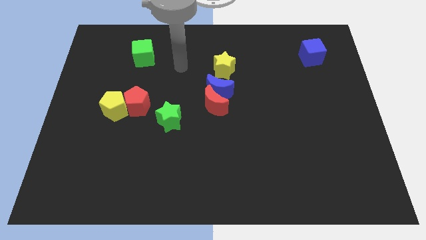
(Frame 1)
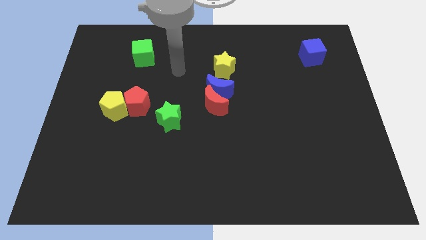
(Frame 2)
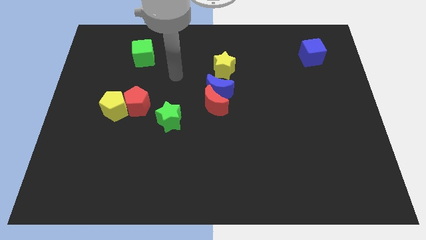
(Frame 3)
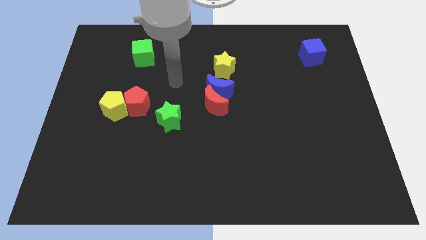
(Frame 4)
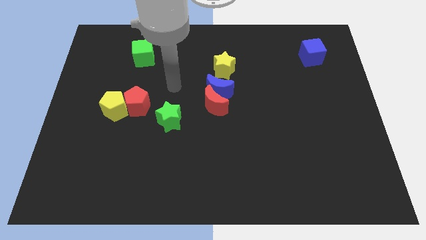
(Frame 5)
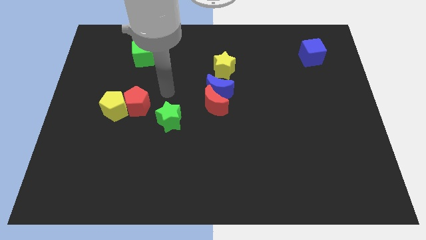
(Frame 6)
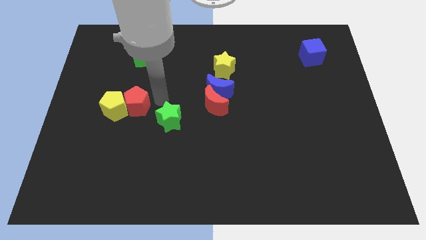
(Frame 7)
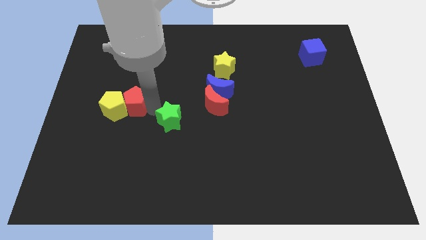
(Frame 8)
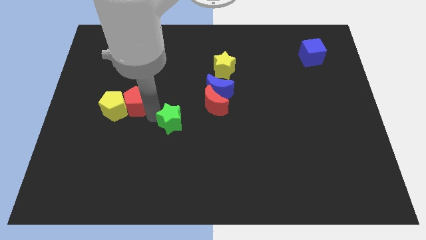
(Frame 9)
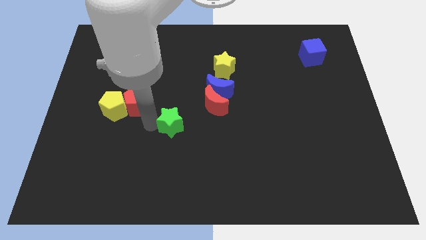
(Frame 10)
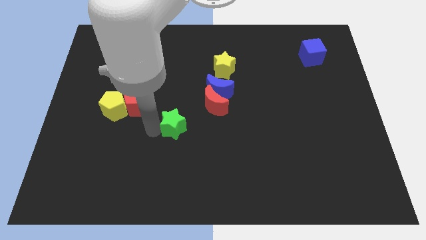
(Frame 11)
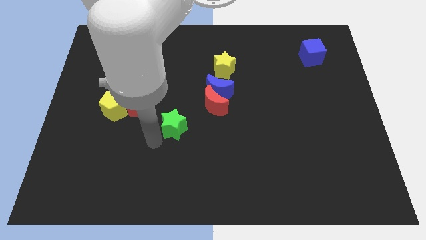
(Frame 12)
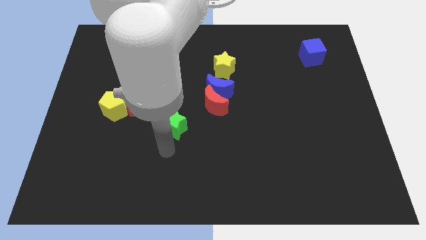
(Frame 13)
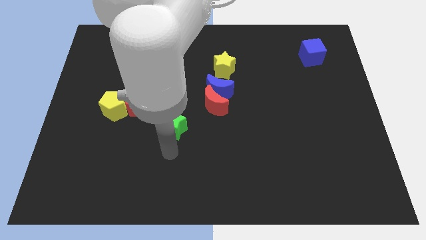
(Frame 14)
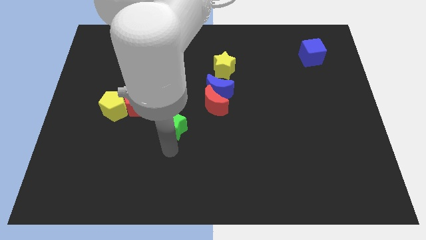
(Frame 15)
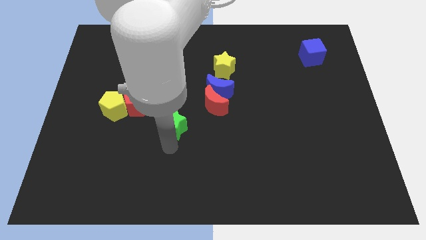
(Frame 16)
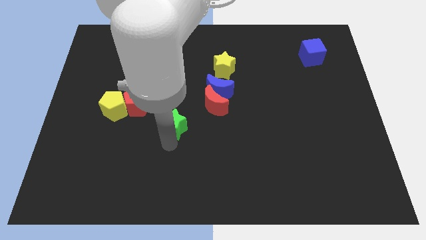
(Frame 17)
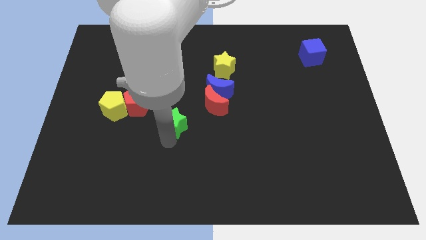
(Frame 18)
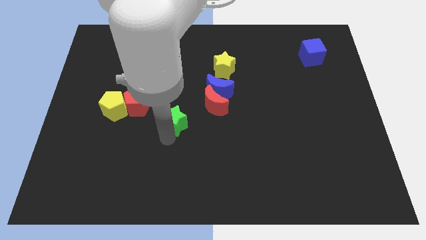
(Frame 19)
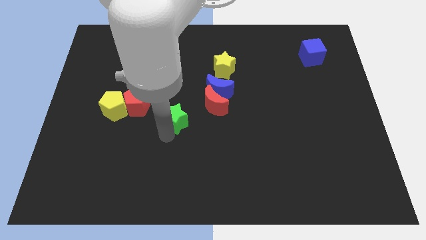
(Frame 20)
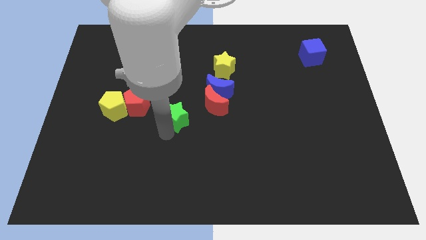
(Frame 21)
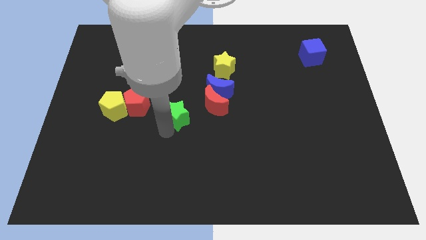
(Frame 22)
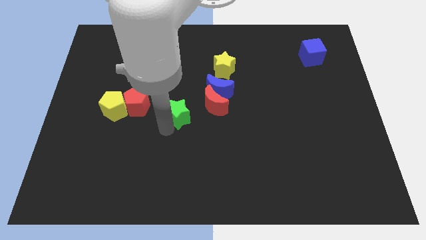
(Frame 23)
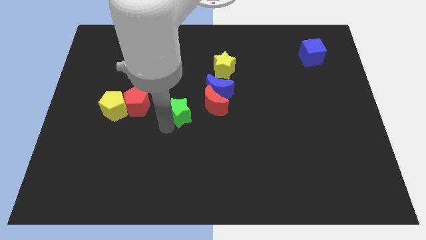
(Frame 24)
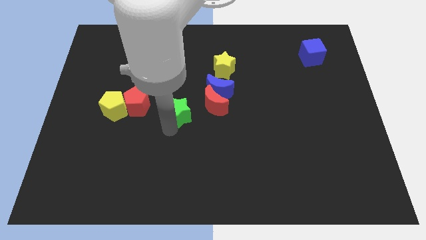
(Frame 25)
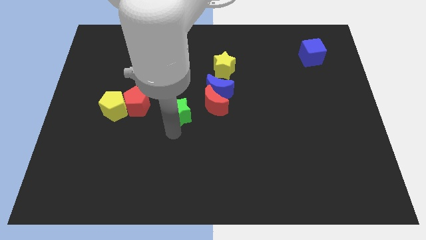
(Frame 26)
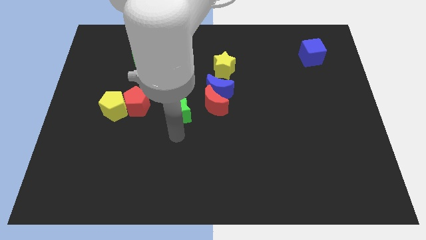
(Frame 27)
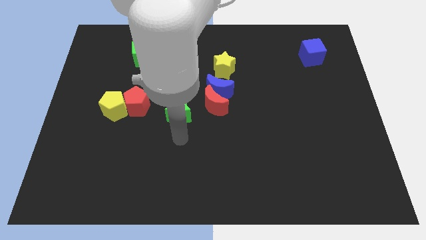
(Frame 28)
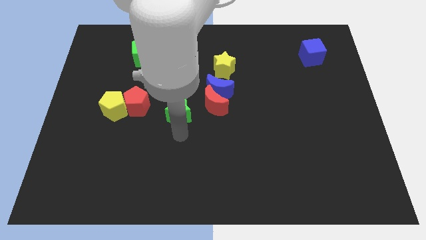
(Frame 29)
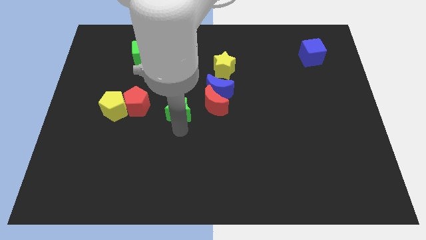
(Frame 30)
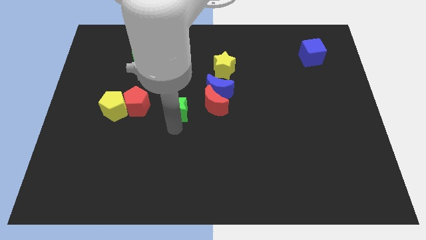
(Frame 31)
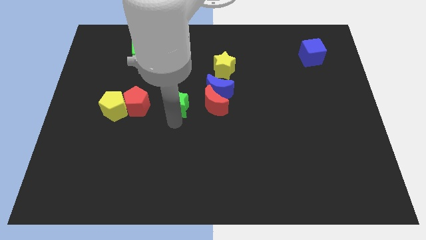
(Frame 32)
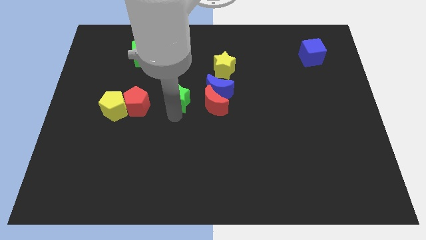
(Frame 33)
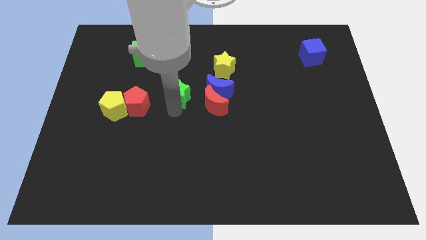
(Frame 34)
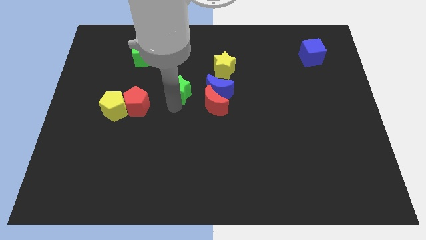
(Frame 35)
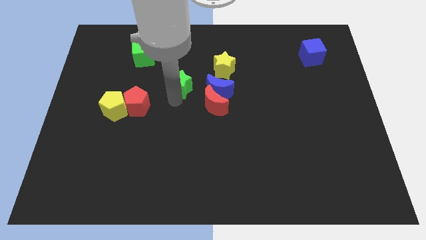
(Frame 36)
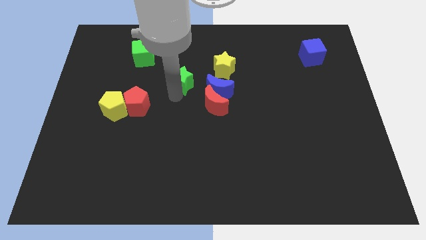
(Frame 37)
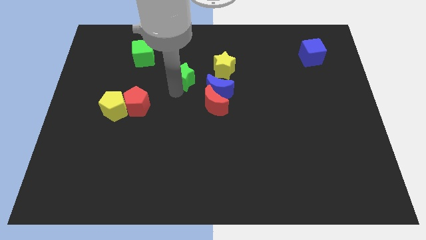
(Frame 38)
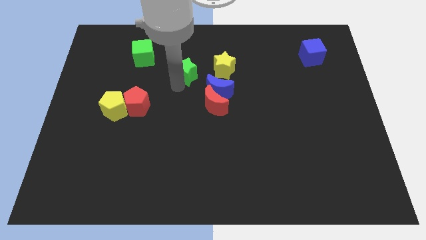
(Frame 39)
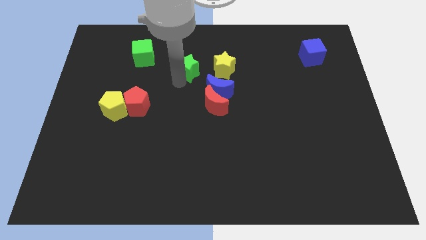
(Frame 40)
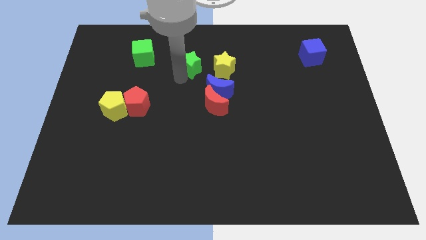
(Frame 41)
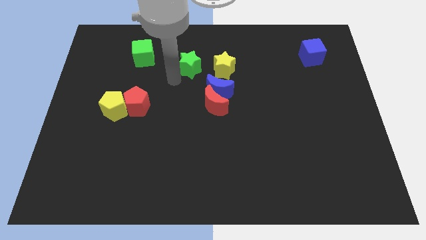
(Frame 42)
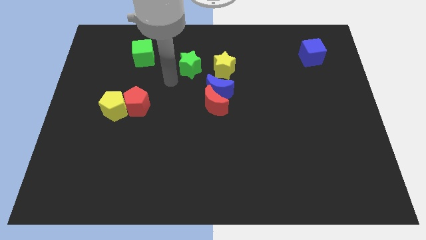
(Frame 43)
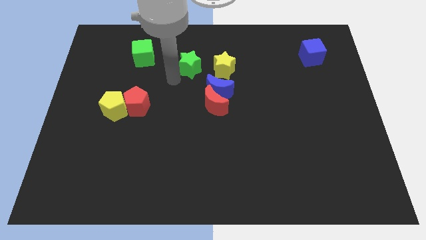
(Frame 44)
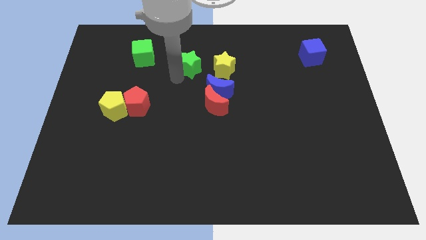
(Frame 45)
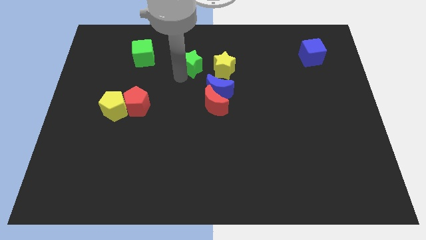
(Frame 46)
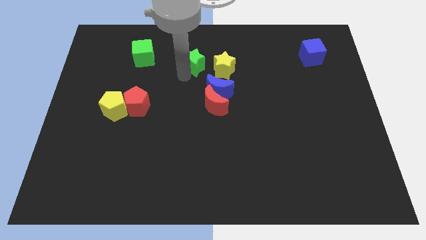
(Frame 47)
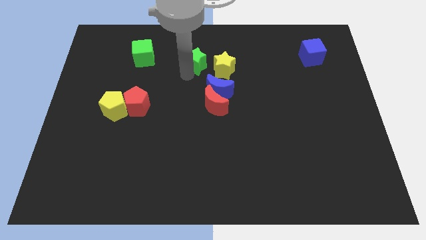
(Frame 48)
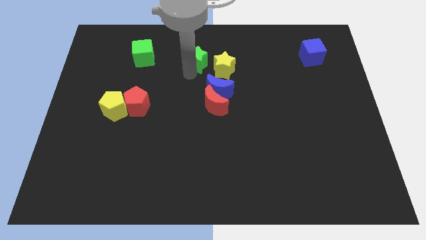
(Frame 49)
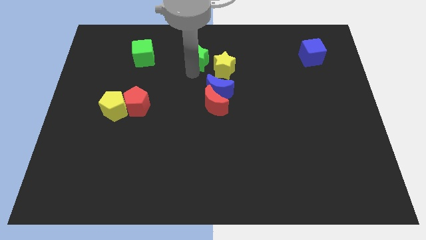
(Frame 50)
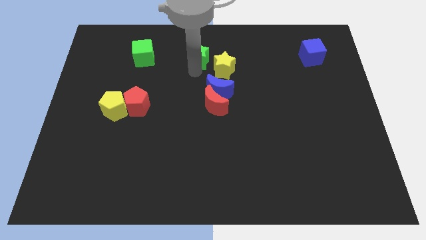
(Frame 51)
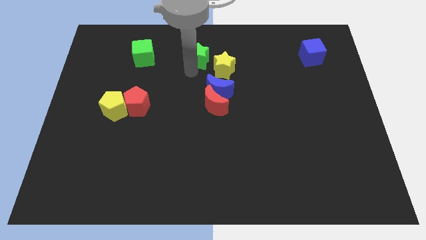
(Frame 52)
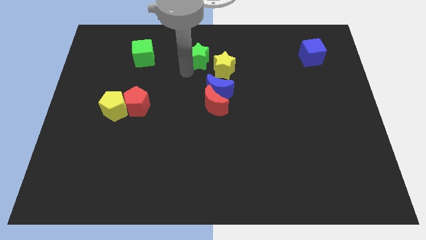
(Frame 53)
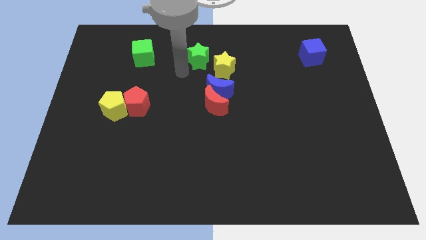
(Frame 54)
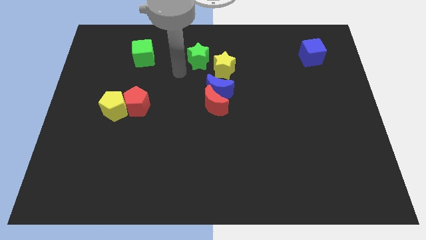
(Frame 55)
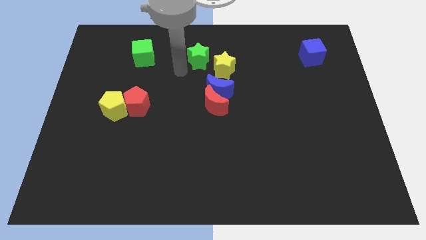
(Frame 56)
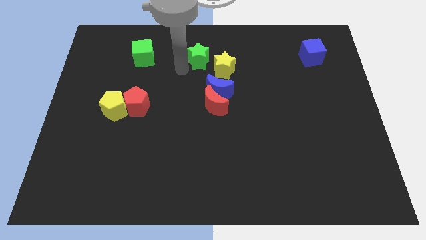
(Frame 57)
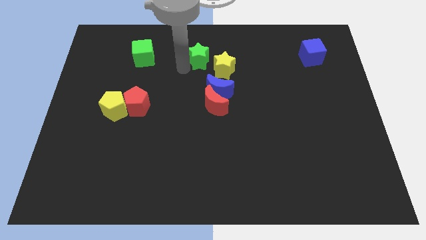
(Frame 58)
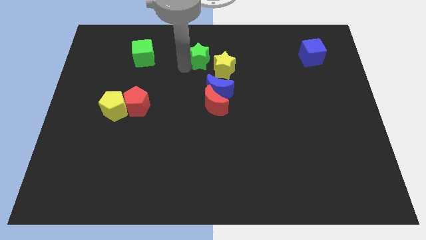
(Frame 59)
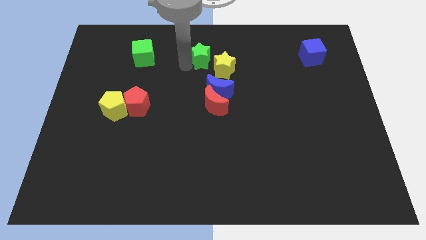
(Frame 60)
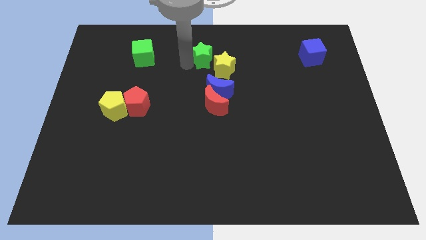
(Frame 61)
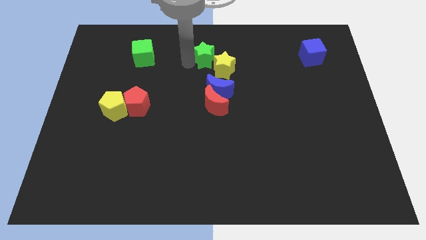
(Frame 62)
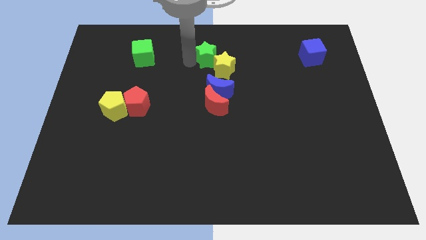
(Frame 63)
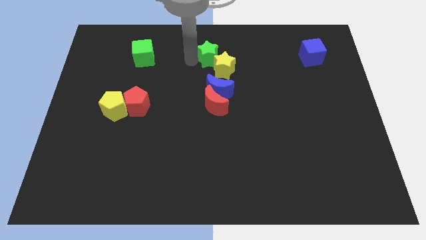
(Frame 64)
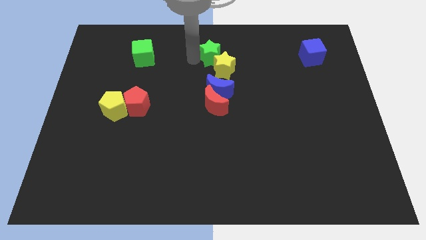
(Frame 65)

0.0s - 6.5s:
slide the green star to the towards your base

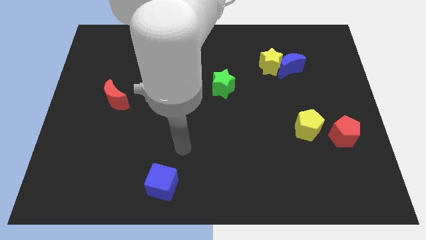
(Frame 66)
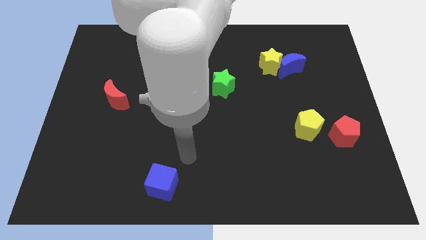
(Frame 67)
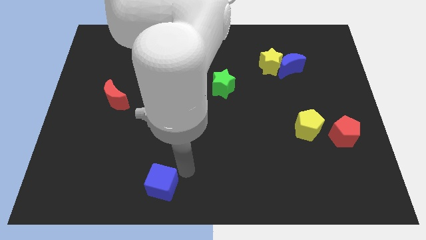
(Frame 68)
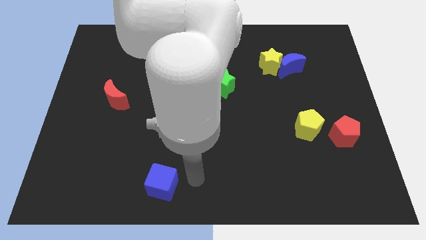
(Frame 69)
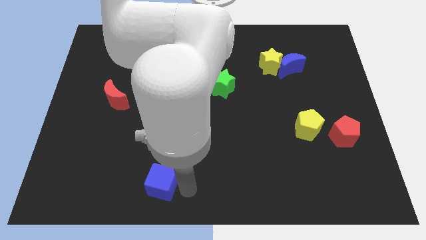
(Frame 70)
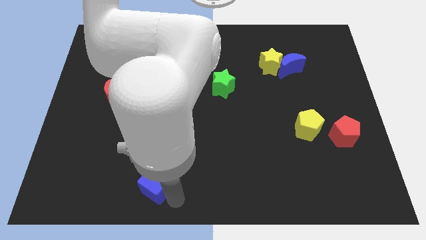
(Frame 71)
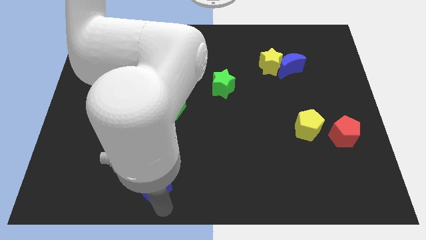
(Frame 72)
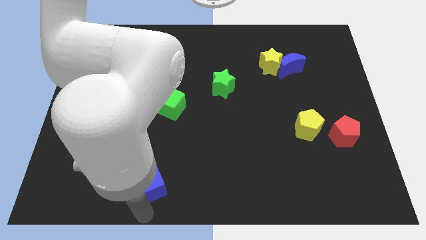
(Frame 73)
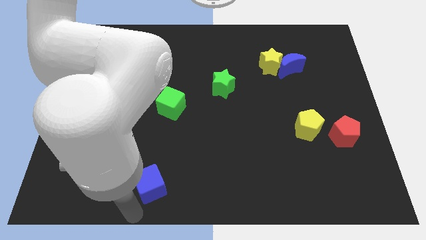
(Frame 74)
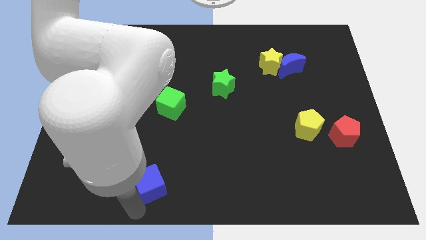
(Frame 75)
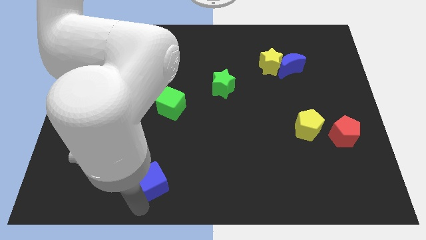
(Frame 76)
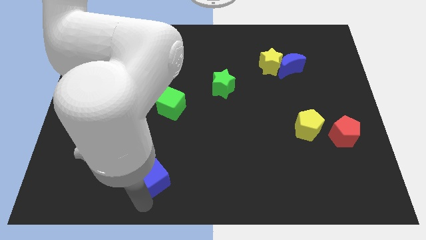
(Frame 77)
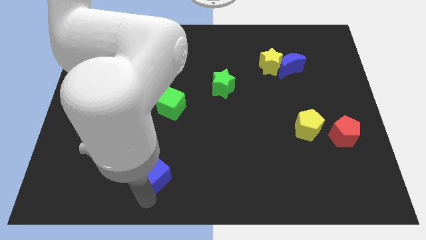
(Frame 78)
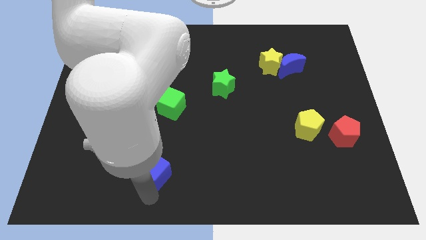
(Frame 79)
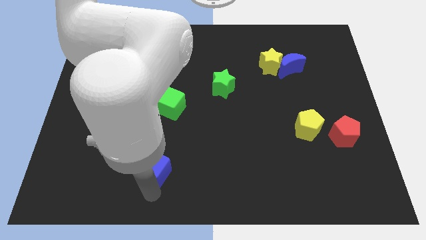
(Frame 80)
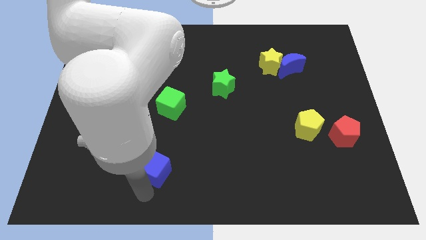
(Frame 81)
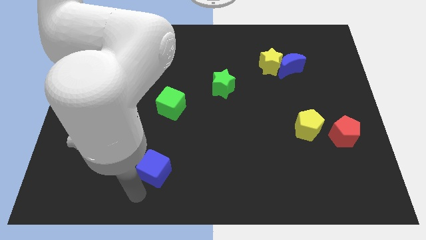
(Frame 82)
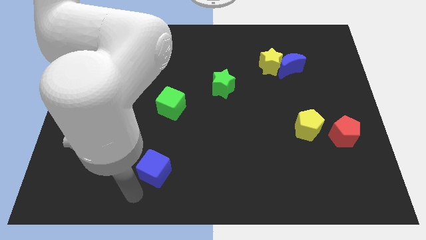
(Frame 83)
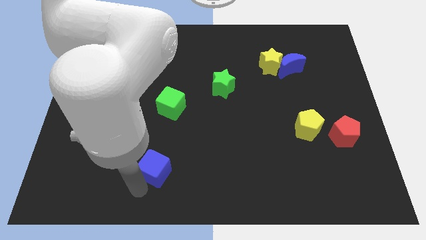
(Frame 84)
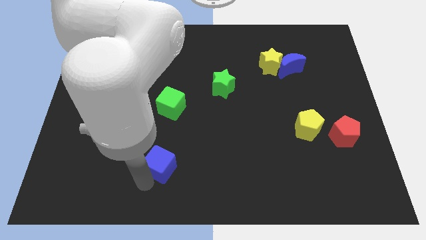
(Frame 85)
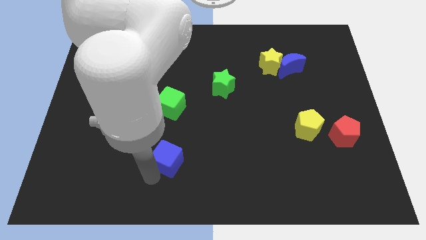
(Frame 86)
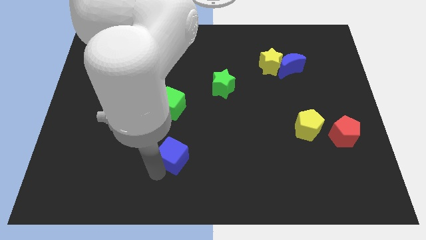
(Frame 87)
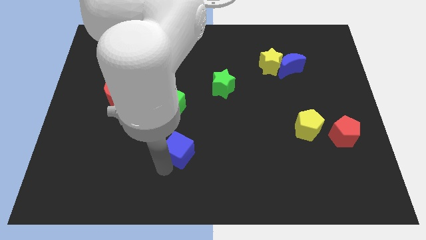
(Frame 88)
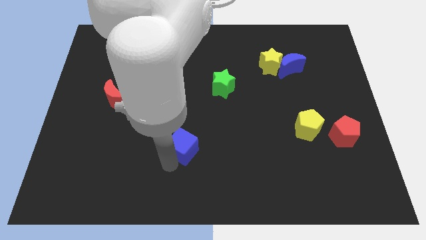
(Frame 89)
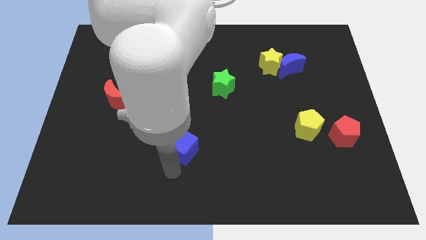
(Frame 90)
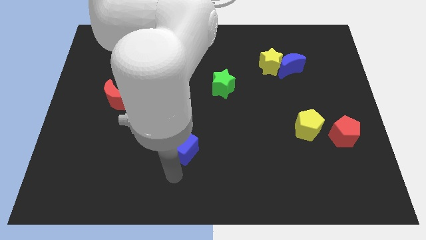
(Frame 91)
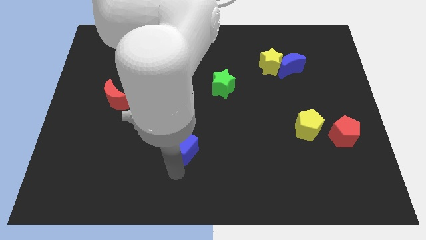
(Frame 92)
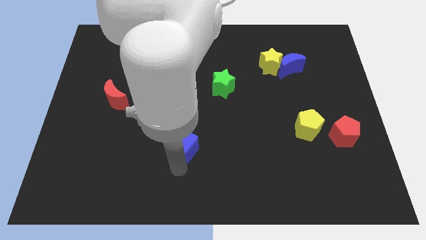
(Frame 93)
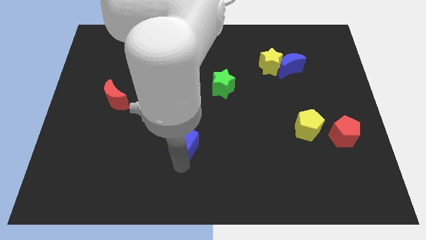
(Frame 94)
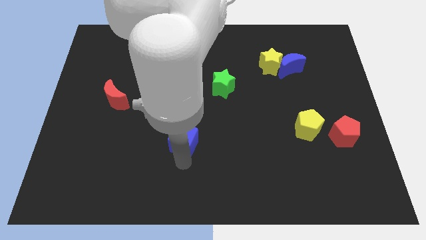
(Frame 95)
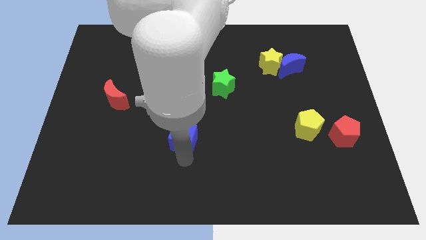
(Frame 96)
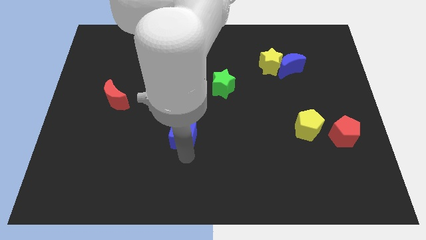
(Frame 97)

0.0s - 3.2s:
move the blue cube to the middle of the board
